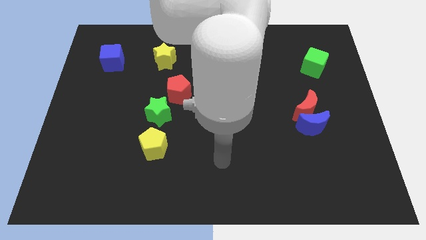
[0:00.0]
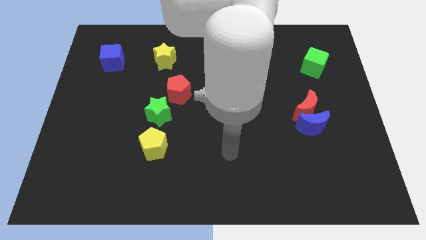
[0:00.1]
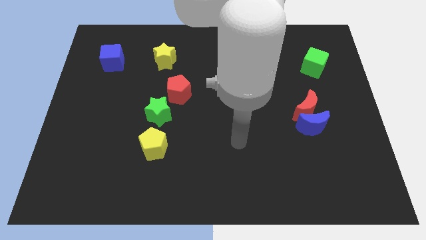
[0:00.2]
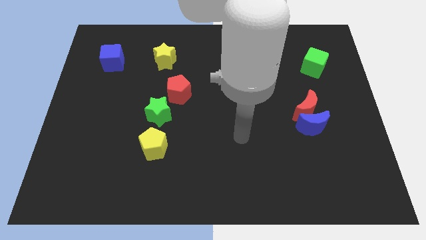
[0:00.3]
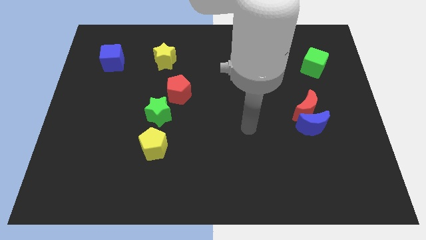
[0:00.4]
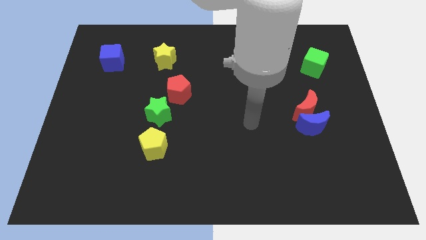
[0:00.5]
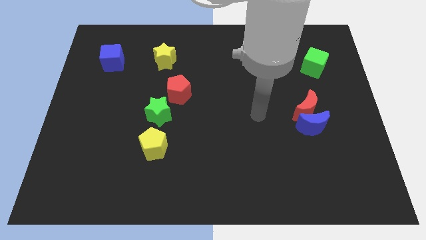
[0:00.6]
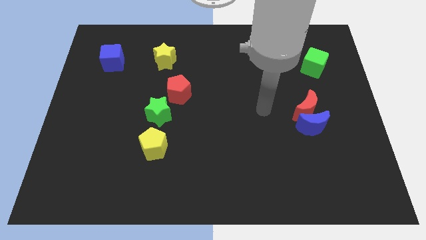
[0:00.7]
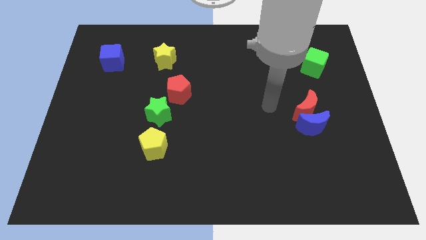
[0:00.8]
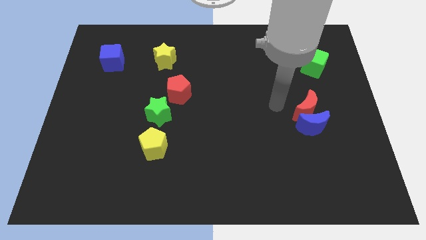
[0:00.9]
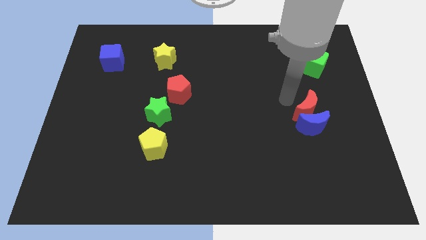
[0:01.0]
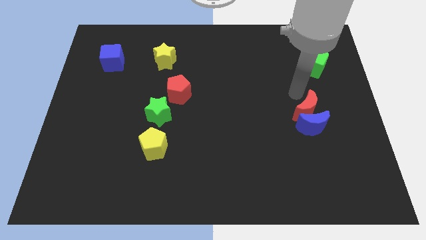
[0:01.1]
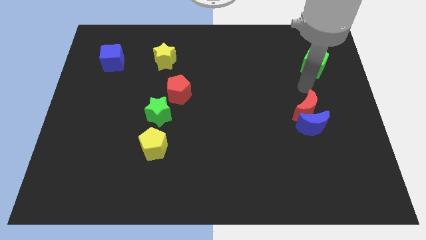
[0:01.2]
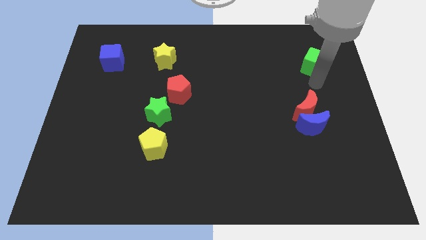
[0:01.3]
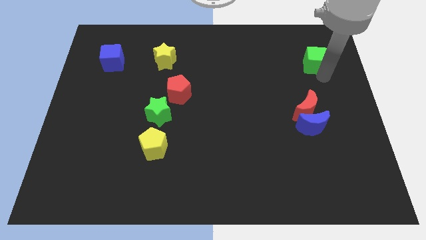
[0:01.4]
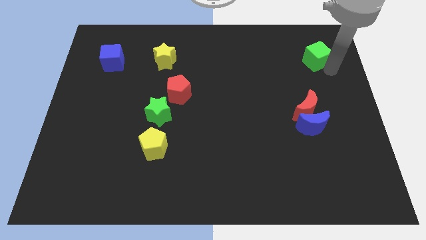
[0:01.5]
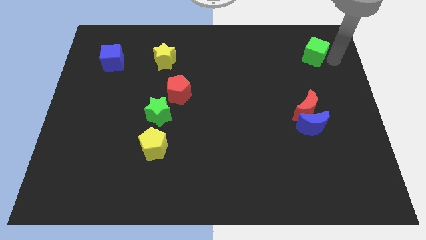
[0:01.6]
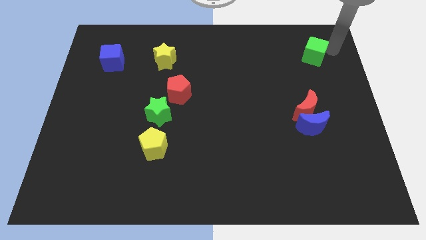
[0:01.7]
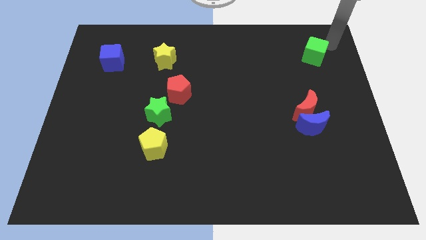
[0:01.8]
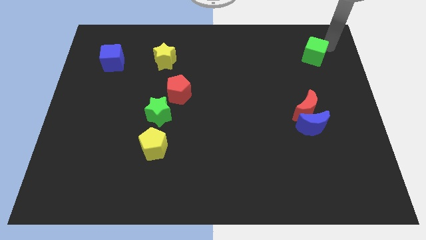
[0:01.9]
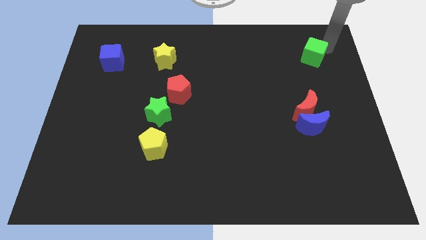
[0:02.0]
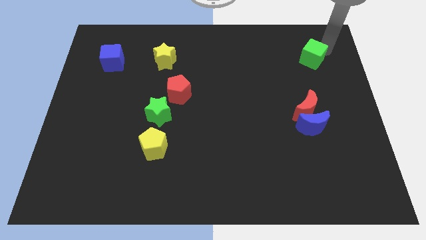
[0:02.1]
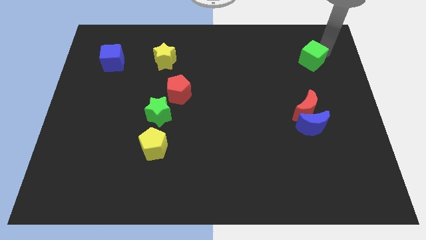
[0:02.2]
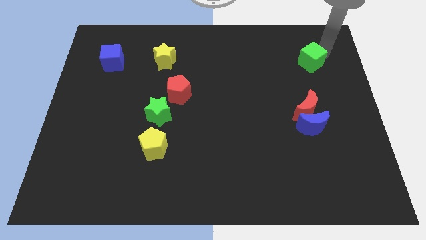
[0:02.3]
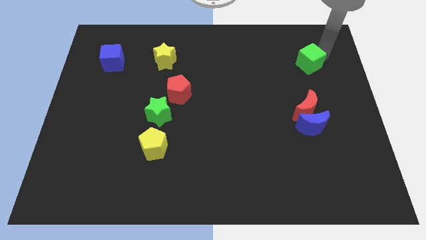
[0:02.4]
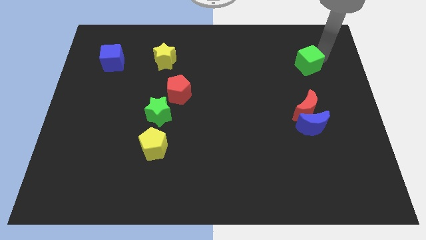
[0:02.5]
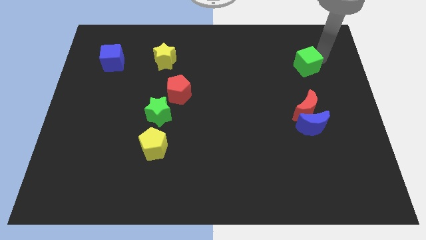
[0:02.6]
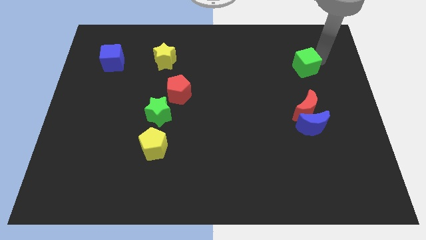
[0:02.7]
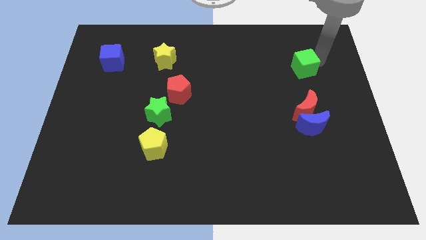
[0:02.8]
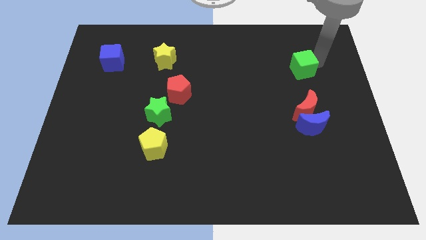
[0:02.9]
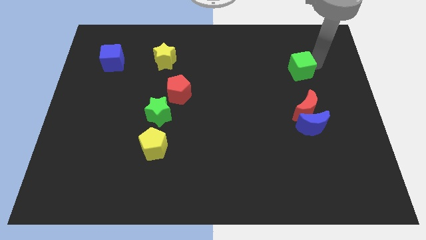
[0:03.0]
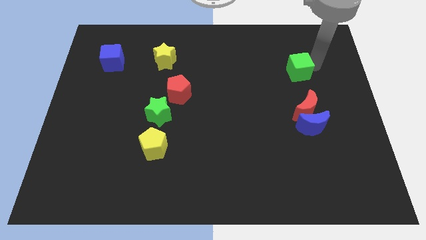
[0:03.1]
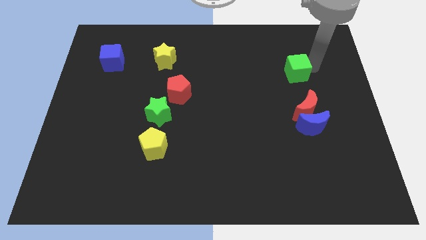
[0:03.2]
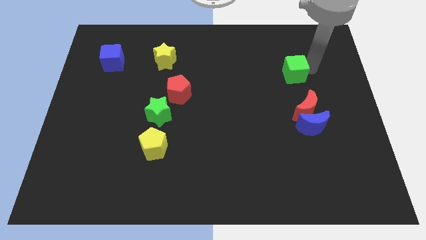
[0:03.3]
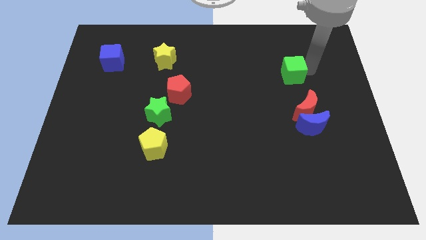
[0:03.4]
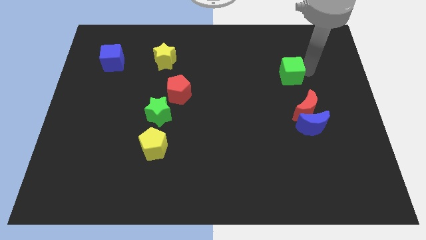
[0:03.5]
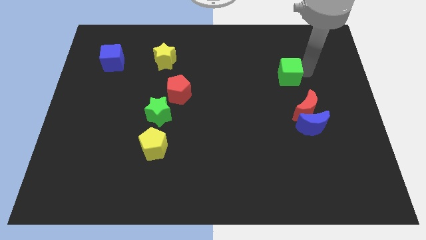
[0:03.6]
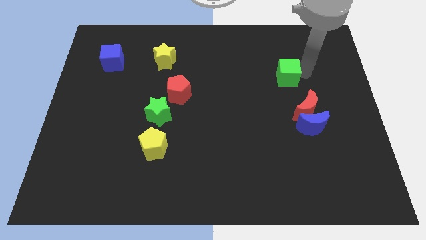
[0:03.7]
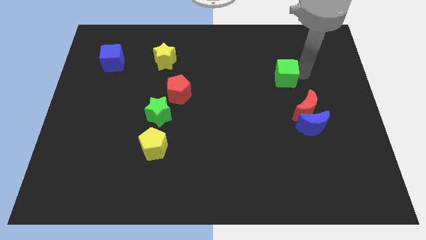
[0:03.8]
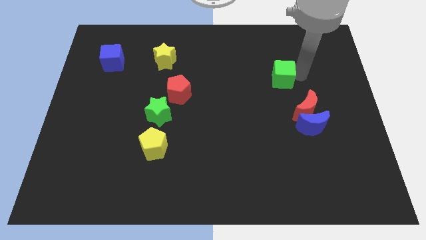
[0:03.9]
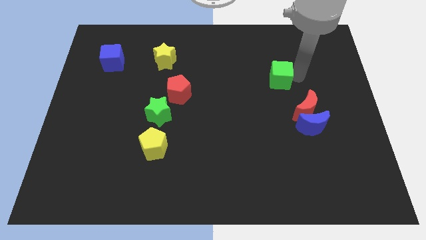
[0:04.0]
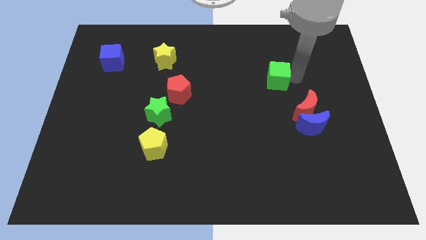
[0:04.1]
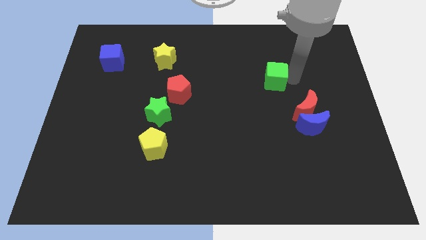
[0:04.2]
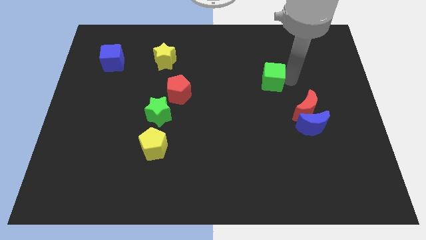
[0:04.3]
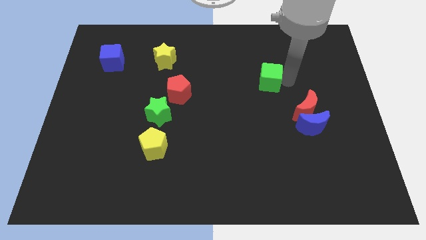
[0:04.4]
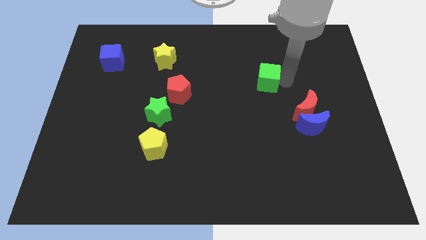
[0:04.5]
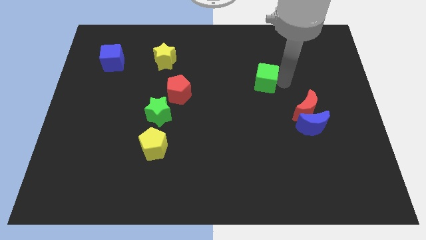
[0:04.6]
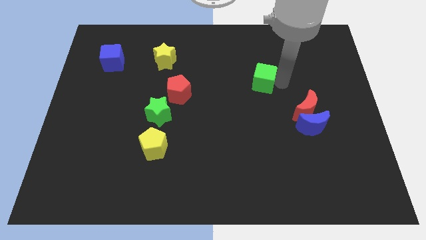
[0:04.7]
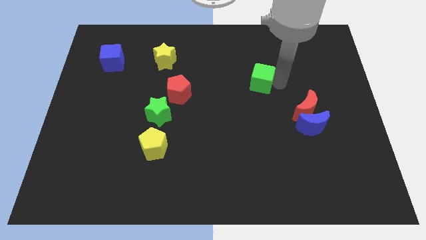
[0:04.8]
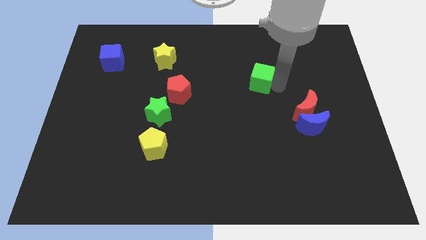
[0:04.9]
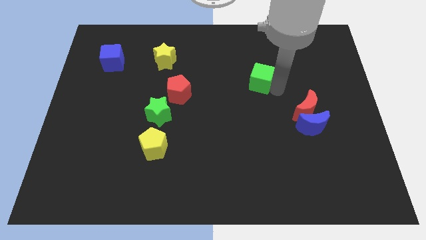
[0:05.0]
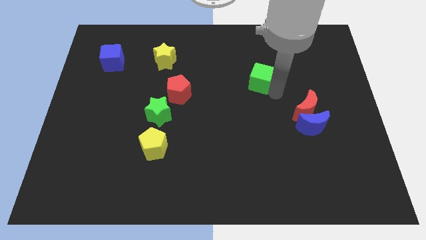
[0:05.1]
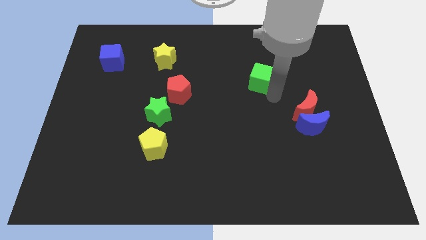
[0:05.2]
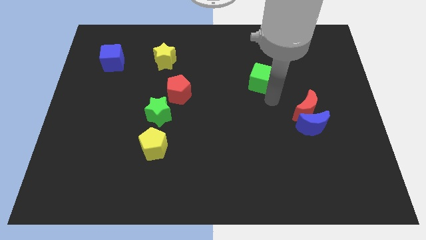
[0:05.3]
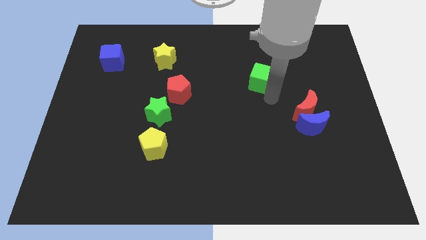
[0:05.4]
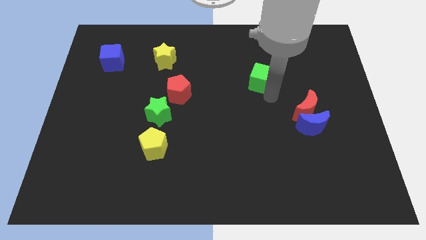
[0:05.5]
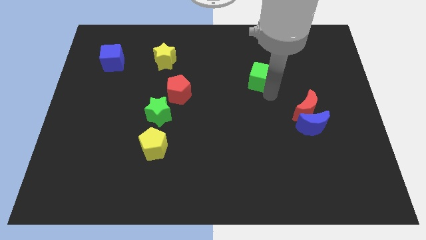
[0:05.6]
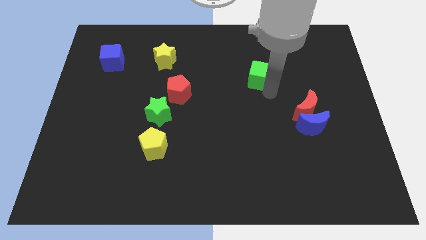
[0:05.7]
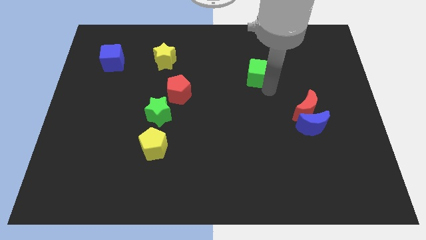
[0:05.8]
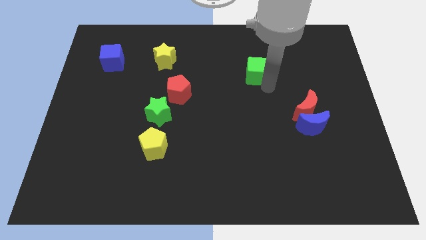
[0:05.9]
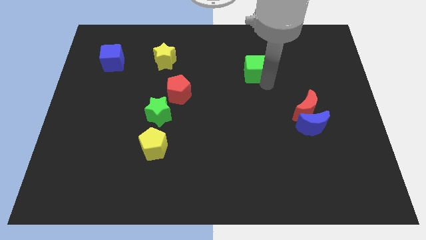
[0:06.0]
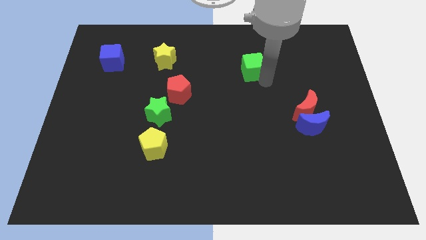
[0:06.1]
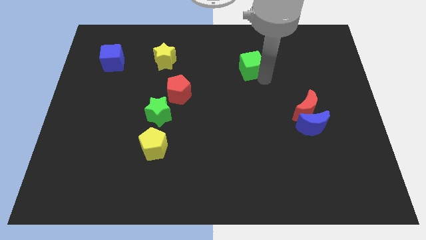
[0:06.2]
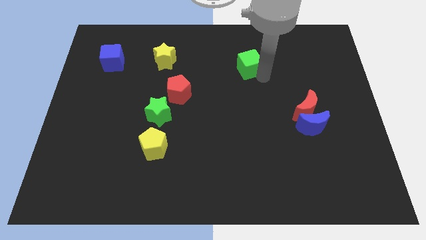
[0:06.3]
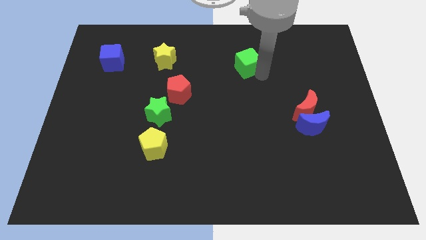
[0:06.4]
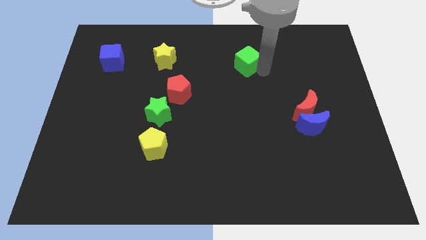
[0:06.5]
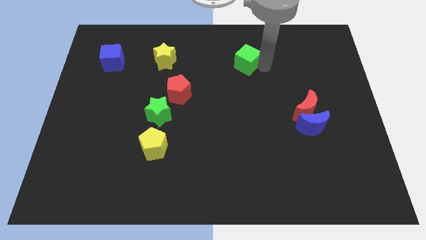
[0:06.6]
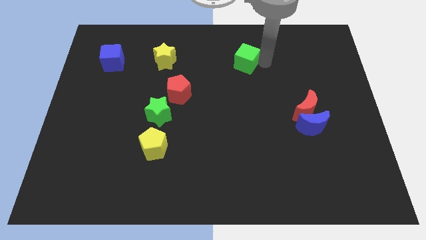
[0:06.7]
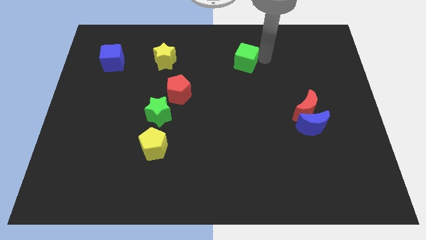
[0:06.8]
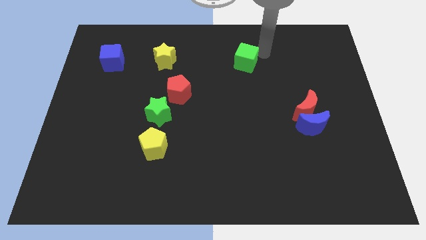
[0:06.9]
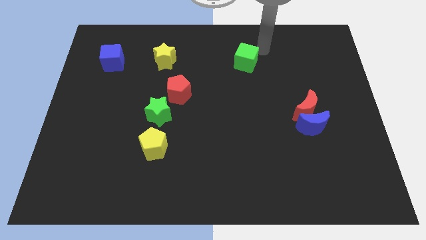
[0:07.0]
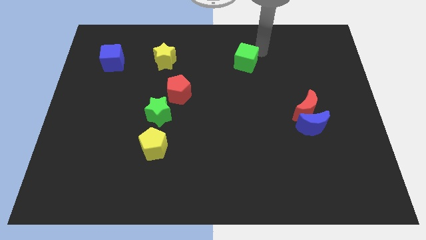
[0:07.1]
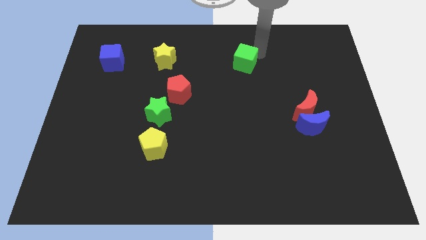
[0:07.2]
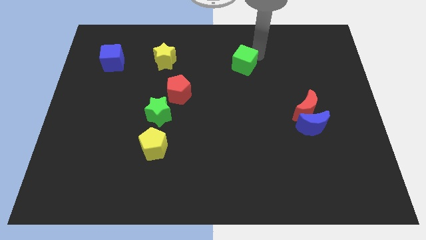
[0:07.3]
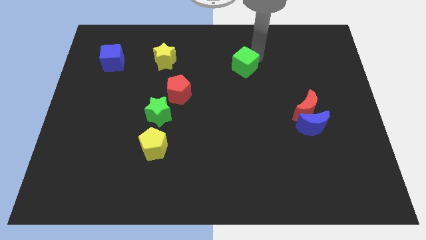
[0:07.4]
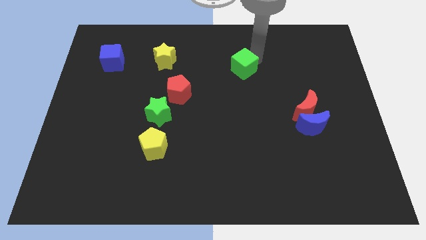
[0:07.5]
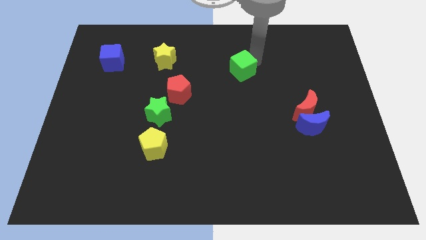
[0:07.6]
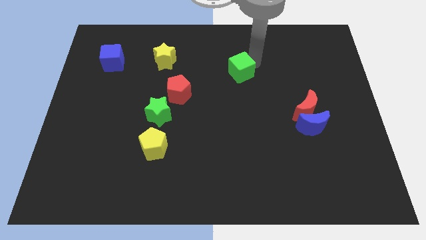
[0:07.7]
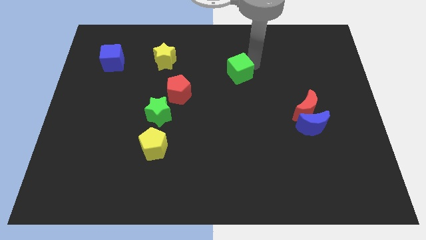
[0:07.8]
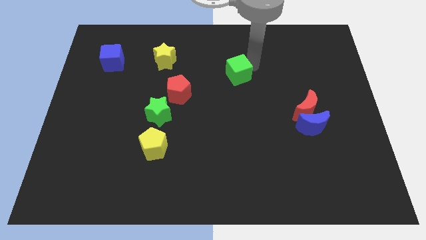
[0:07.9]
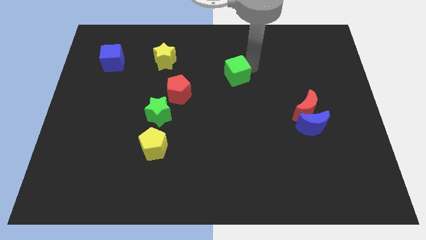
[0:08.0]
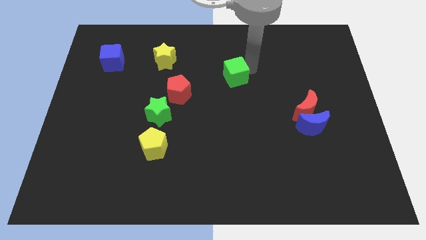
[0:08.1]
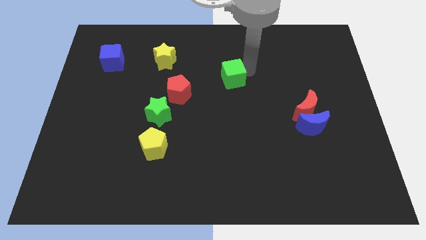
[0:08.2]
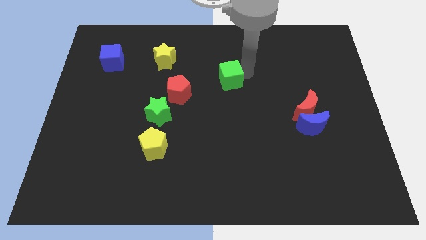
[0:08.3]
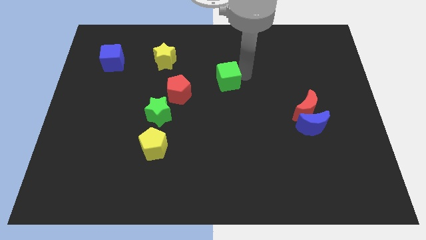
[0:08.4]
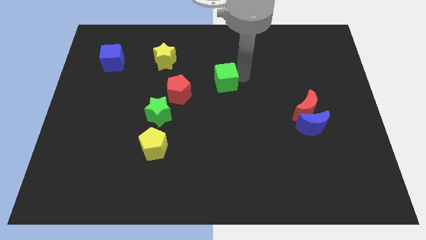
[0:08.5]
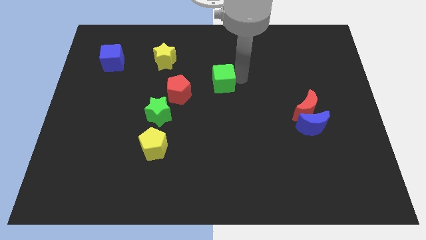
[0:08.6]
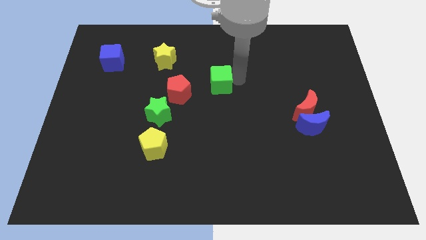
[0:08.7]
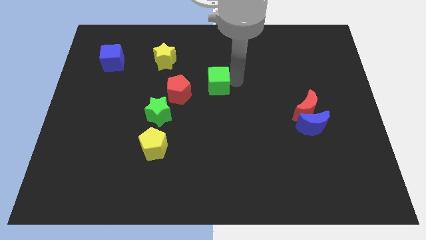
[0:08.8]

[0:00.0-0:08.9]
slide the green cube to the top right side of the red pentagon
